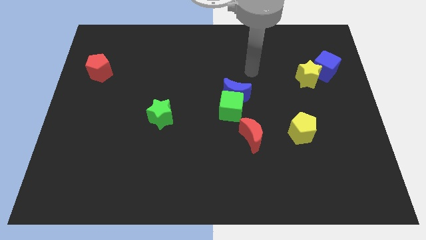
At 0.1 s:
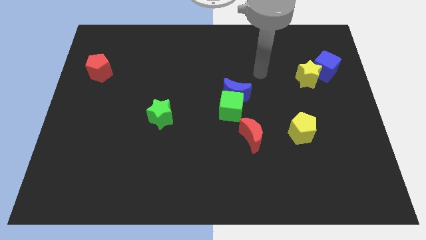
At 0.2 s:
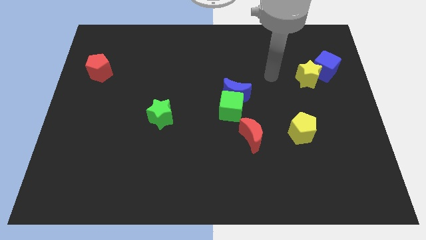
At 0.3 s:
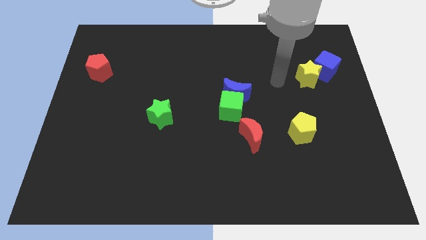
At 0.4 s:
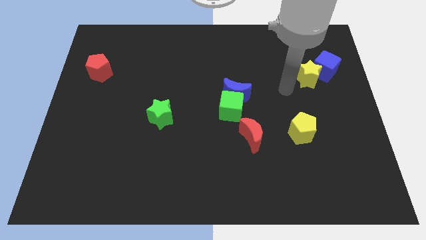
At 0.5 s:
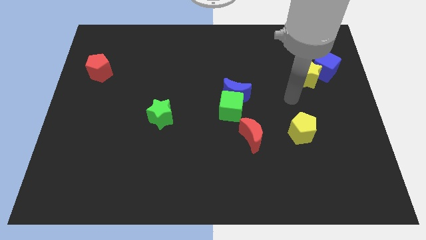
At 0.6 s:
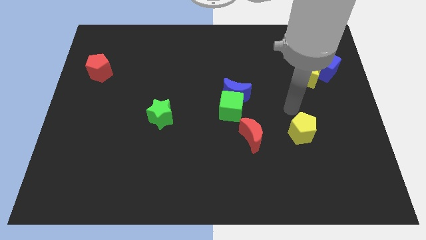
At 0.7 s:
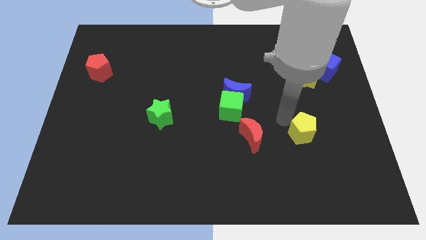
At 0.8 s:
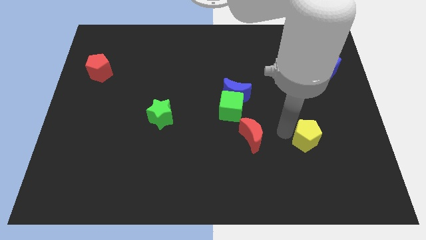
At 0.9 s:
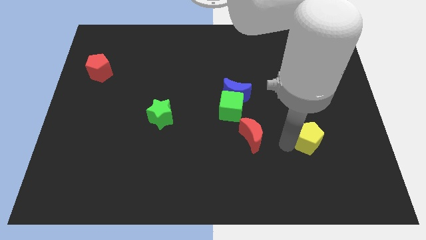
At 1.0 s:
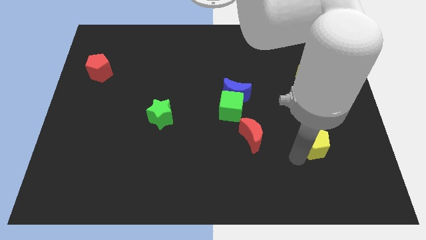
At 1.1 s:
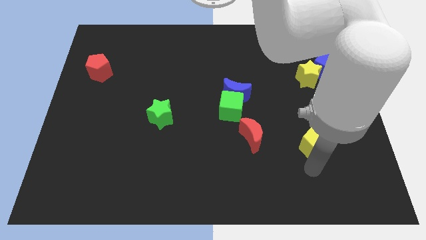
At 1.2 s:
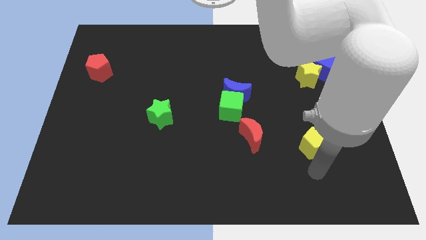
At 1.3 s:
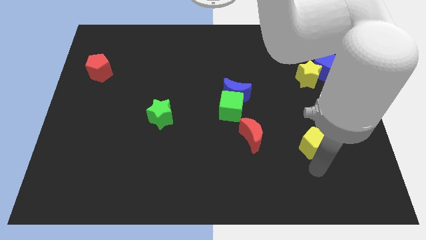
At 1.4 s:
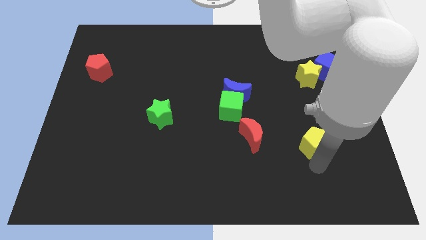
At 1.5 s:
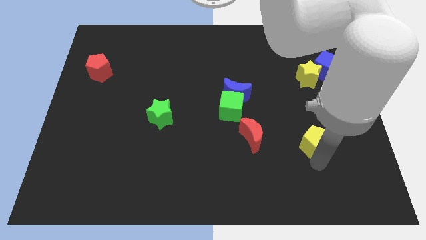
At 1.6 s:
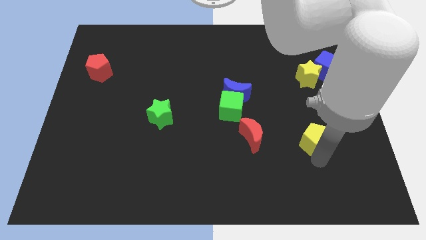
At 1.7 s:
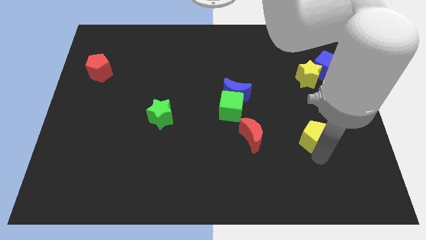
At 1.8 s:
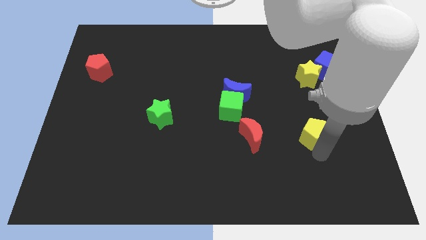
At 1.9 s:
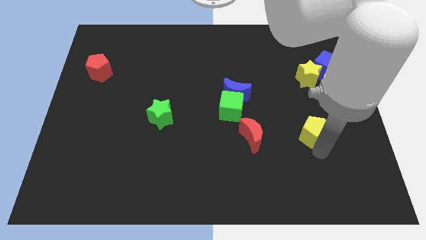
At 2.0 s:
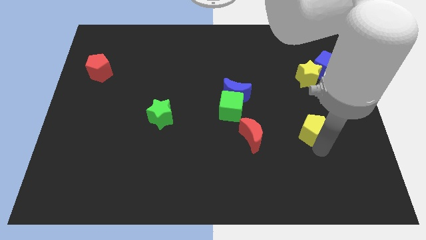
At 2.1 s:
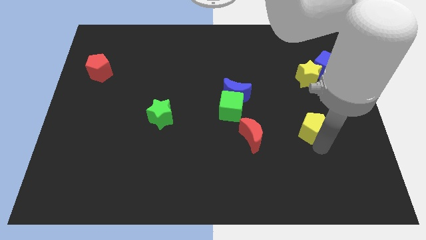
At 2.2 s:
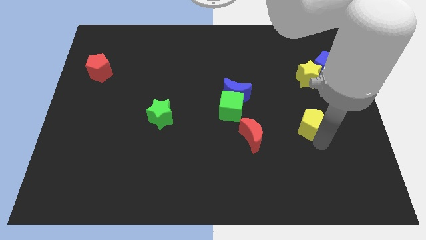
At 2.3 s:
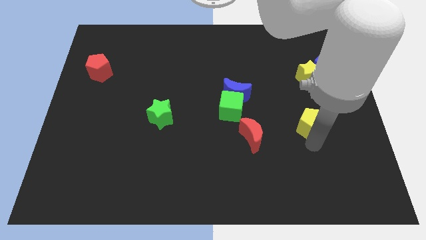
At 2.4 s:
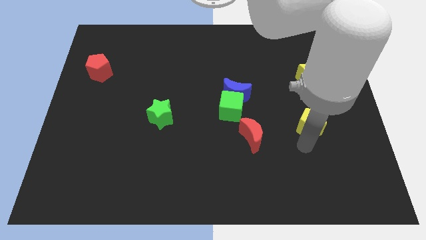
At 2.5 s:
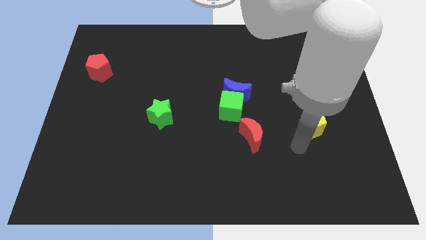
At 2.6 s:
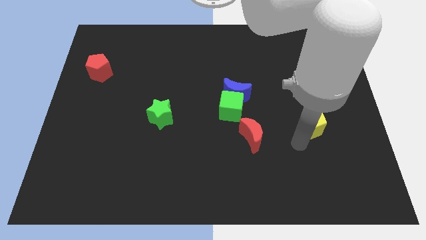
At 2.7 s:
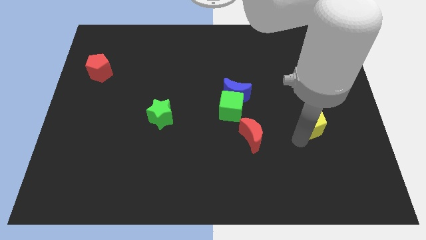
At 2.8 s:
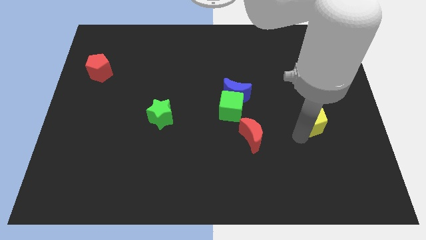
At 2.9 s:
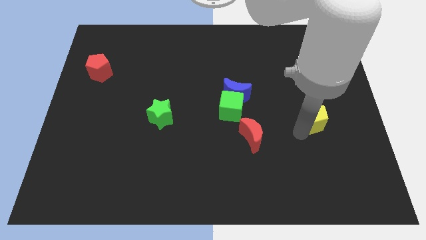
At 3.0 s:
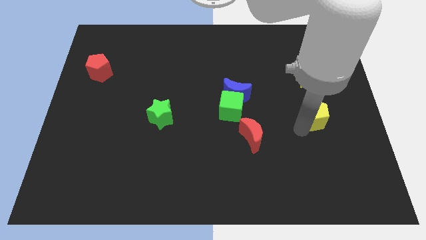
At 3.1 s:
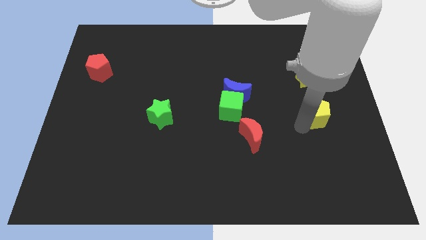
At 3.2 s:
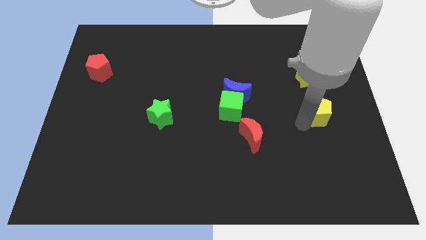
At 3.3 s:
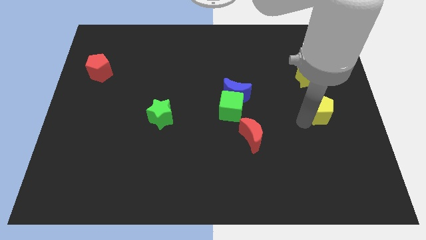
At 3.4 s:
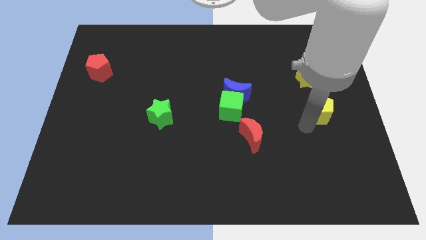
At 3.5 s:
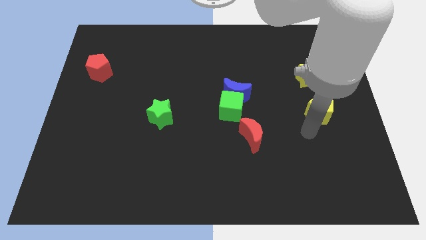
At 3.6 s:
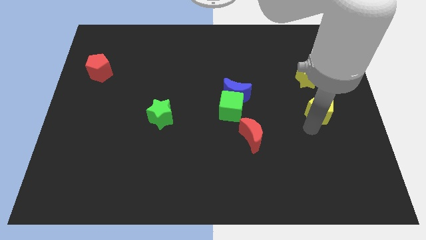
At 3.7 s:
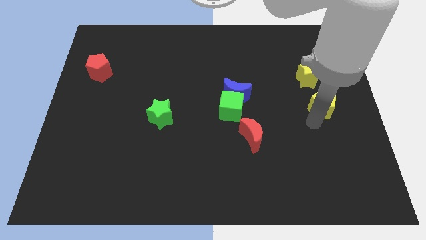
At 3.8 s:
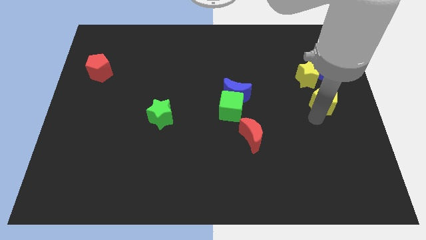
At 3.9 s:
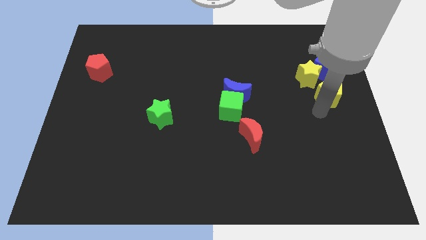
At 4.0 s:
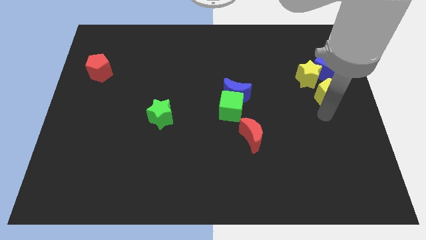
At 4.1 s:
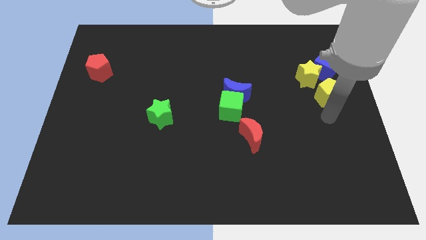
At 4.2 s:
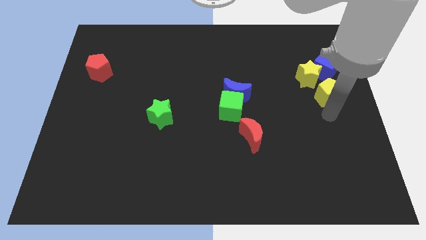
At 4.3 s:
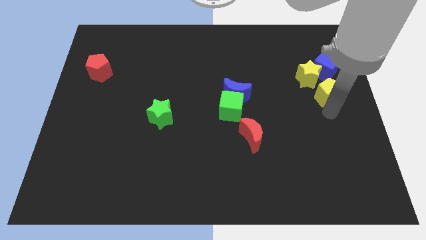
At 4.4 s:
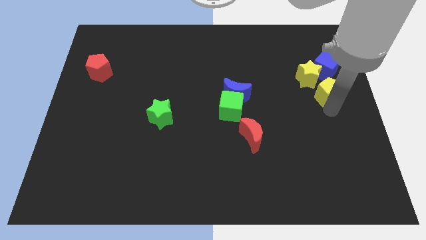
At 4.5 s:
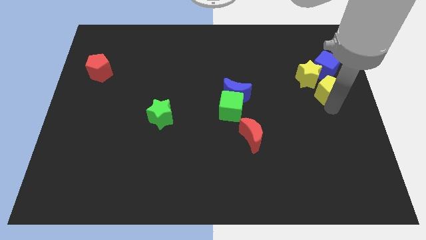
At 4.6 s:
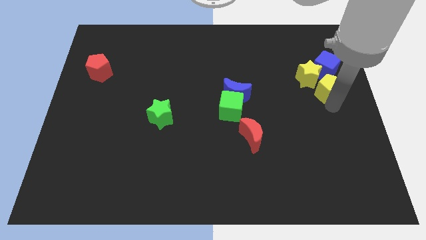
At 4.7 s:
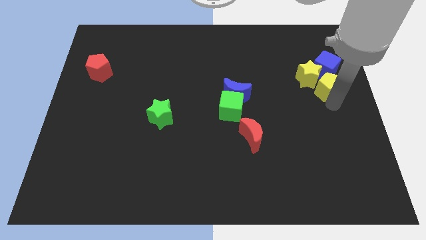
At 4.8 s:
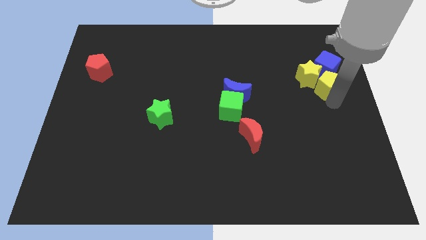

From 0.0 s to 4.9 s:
move the yellow pentagon close to the blue cube

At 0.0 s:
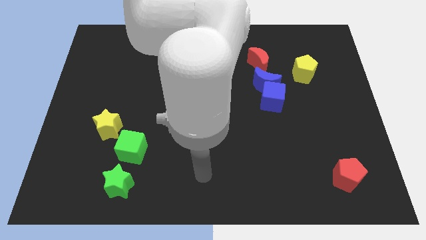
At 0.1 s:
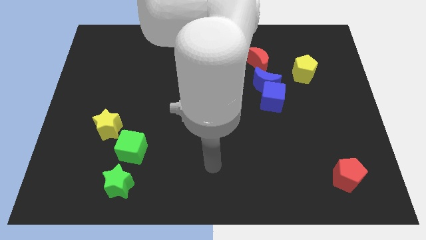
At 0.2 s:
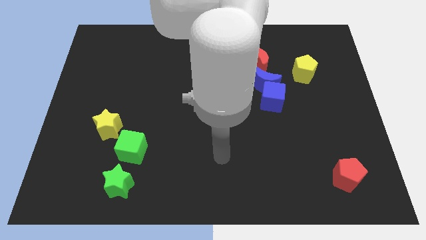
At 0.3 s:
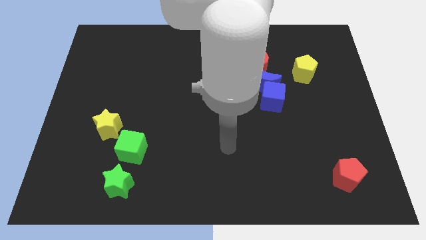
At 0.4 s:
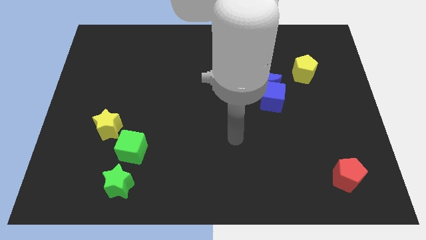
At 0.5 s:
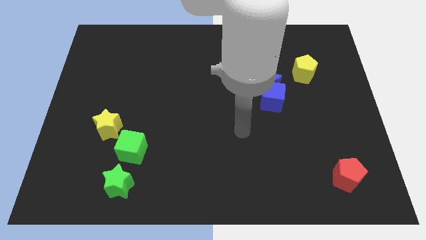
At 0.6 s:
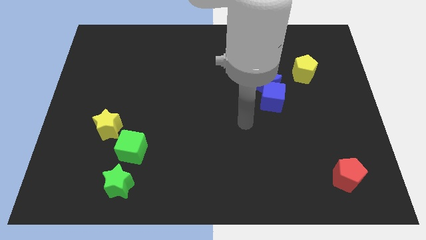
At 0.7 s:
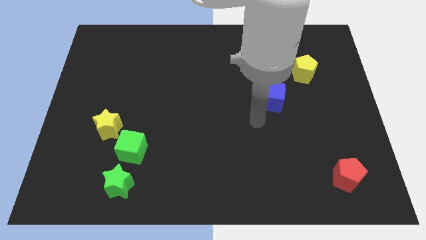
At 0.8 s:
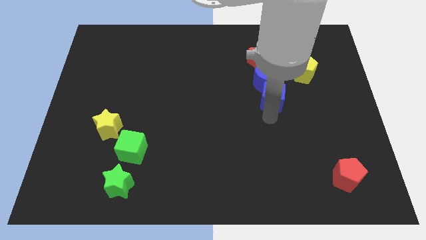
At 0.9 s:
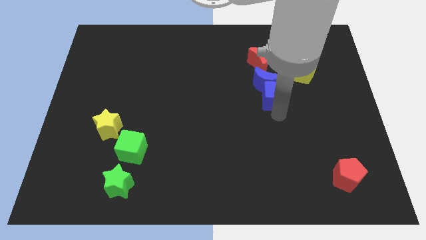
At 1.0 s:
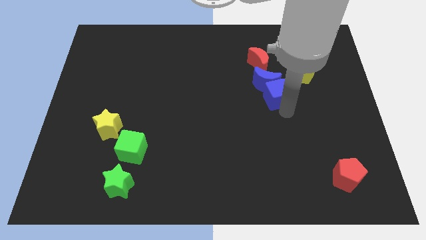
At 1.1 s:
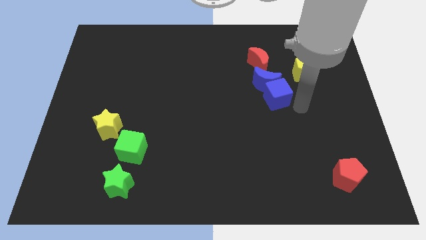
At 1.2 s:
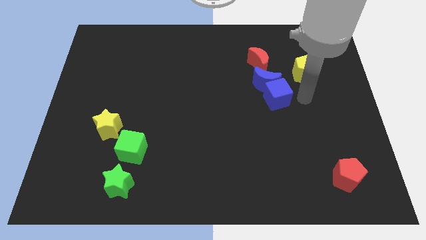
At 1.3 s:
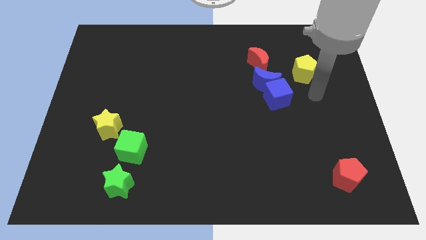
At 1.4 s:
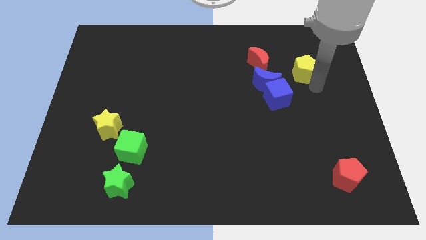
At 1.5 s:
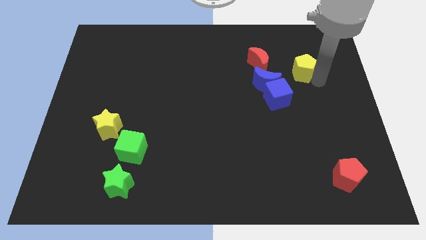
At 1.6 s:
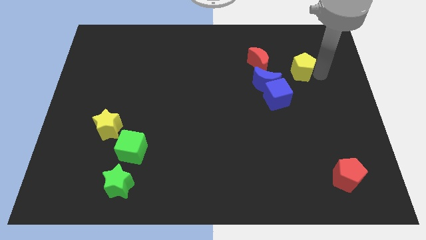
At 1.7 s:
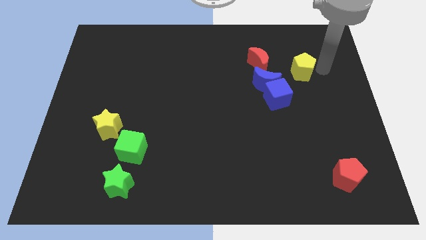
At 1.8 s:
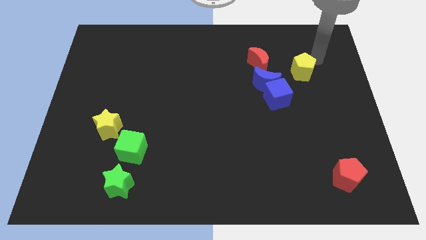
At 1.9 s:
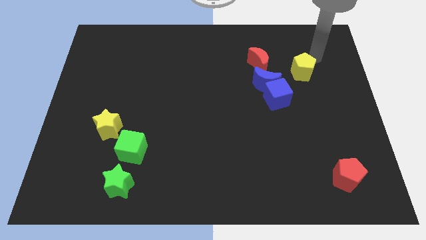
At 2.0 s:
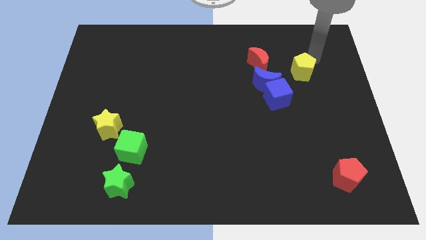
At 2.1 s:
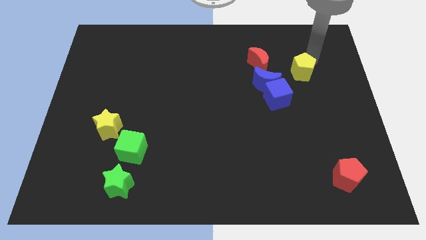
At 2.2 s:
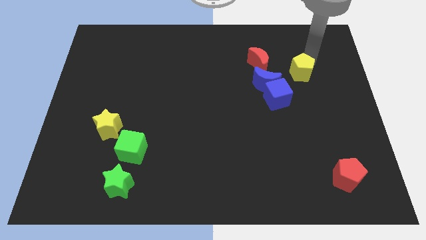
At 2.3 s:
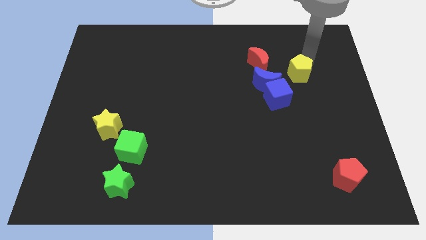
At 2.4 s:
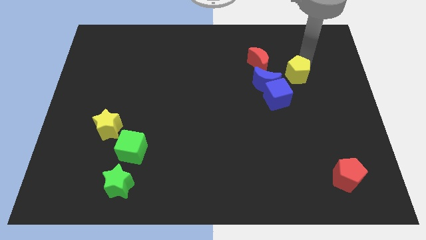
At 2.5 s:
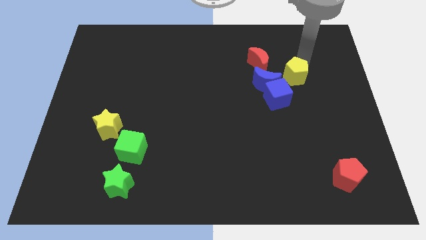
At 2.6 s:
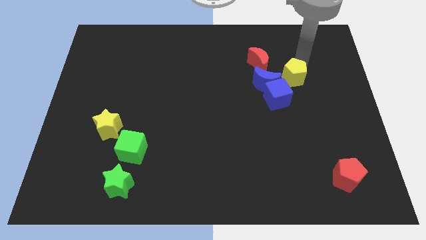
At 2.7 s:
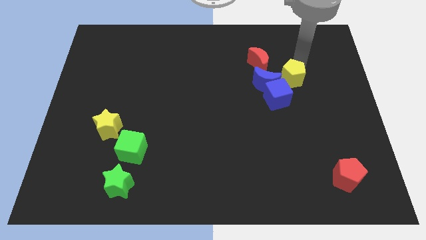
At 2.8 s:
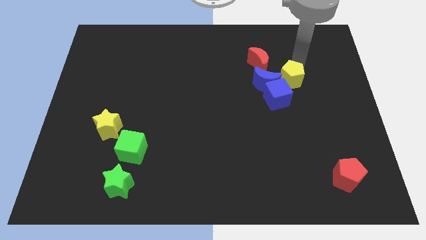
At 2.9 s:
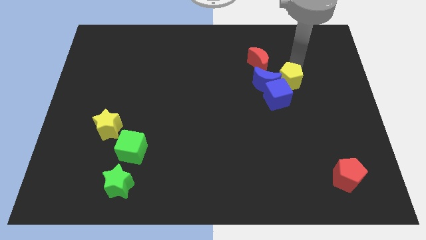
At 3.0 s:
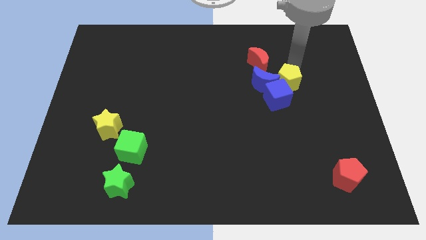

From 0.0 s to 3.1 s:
slide the yellow pentagon towards the blue cube
